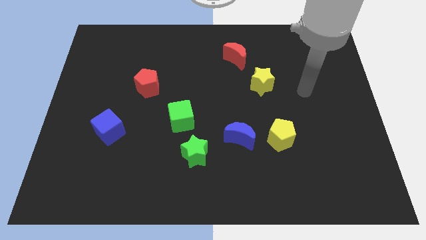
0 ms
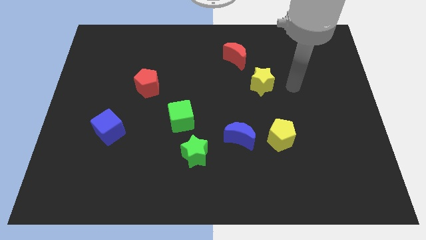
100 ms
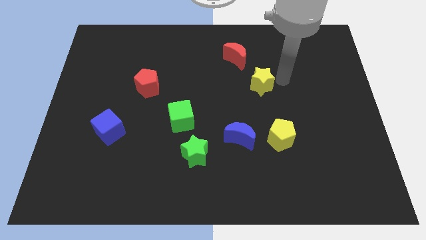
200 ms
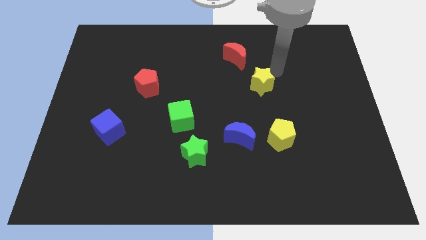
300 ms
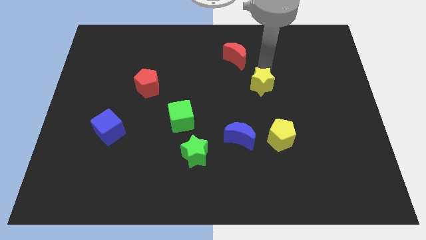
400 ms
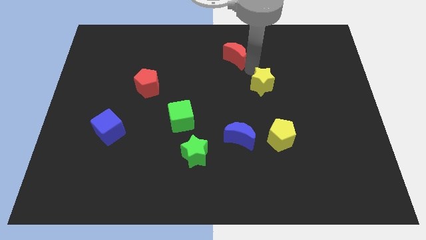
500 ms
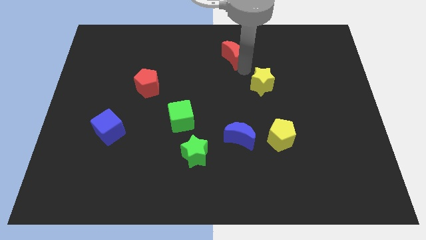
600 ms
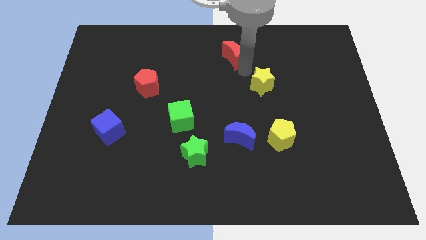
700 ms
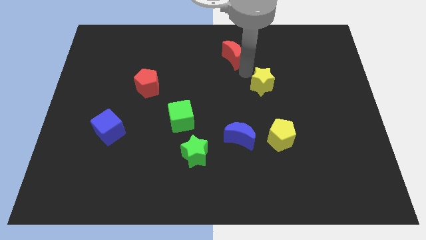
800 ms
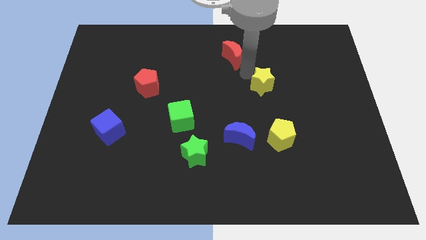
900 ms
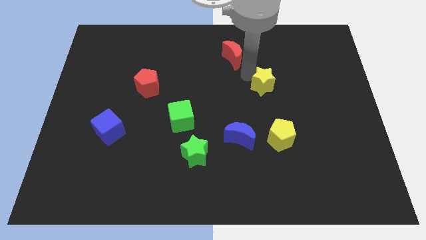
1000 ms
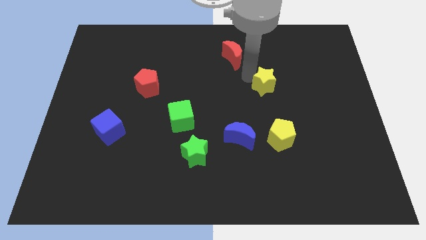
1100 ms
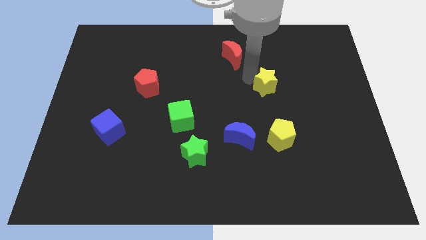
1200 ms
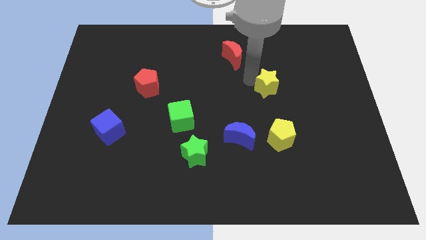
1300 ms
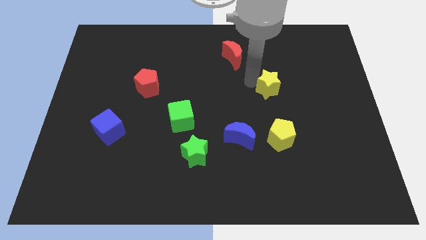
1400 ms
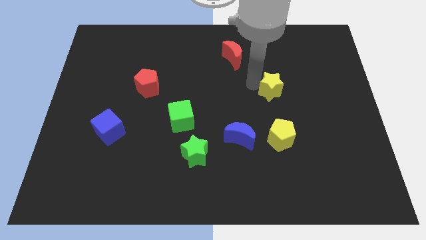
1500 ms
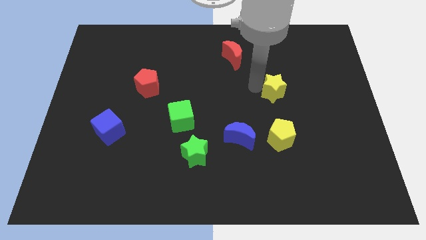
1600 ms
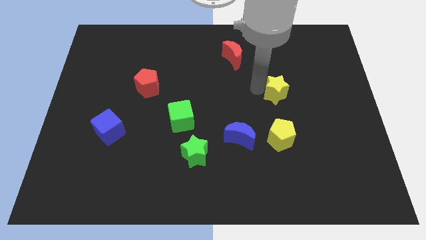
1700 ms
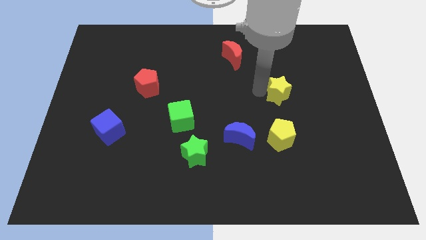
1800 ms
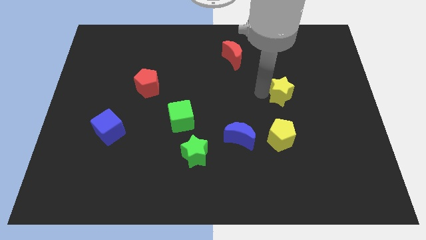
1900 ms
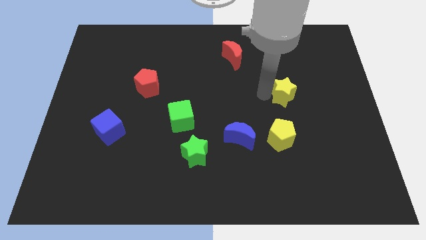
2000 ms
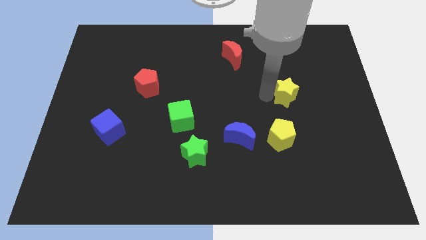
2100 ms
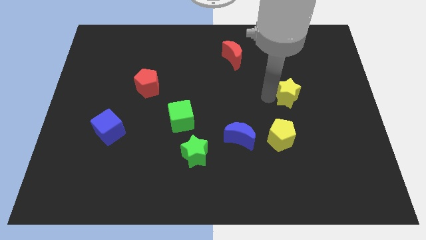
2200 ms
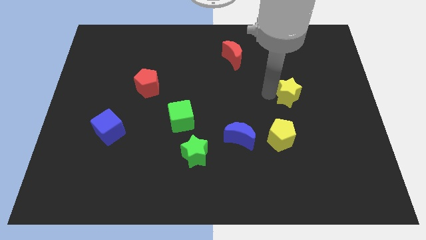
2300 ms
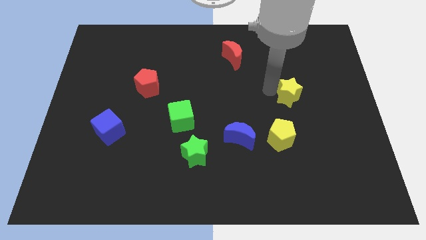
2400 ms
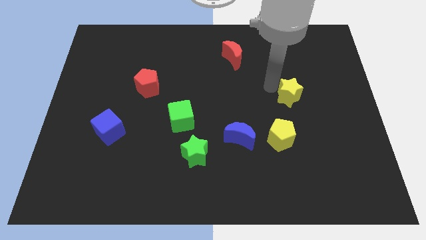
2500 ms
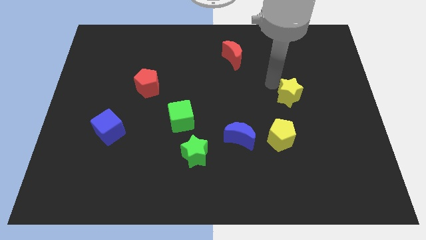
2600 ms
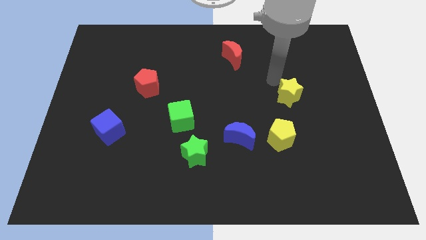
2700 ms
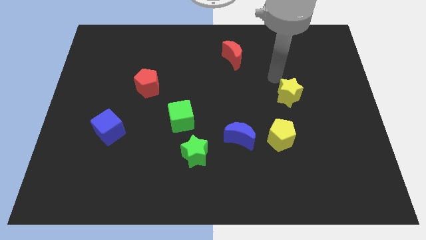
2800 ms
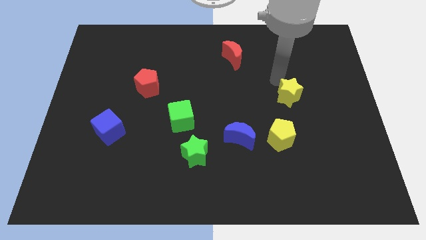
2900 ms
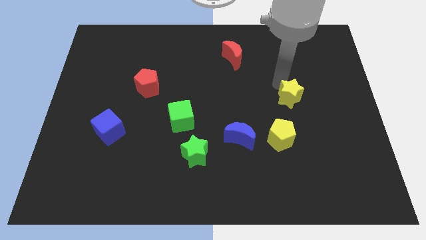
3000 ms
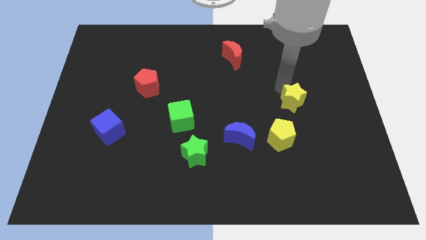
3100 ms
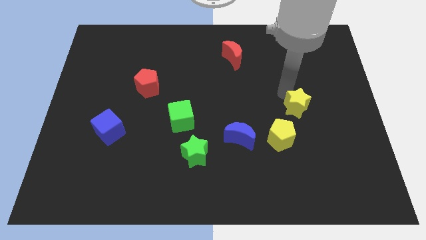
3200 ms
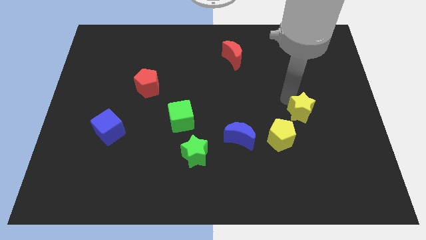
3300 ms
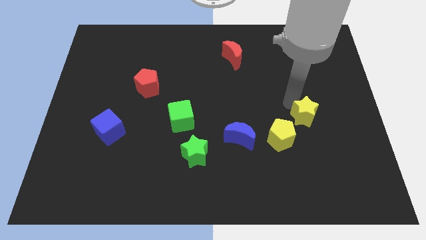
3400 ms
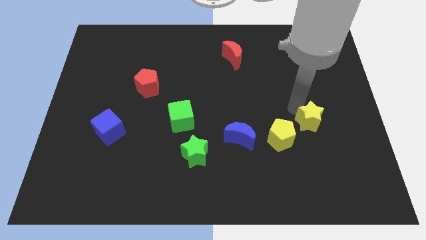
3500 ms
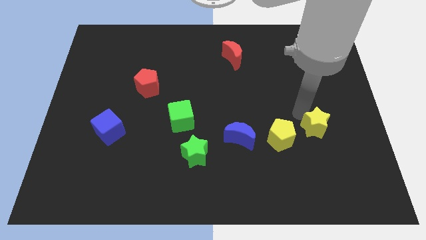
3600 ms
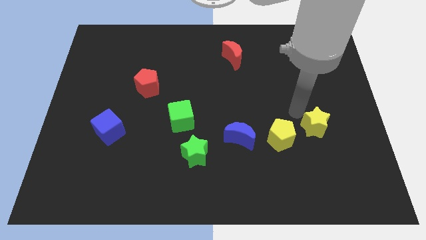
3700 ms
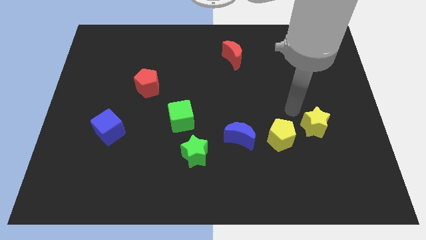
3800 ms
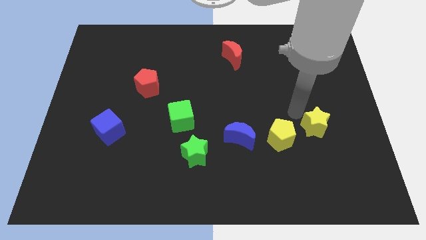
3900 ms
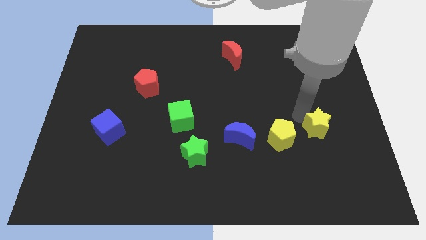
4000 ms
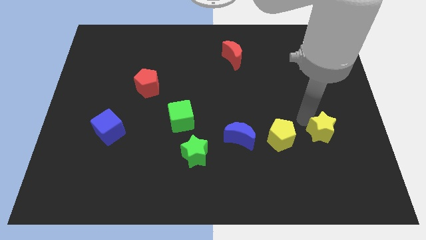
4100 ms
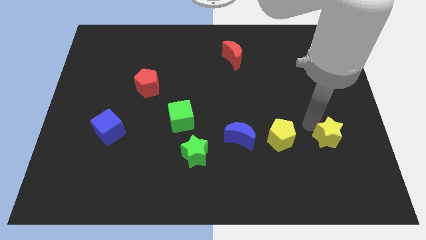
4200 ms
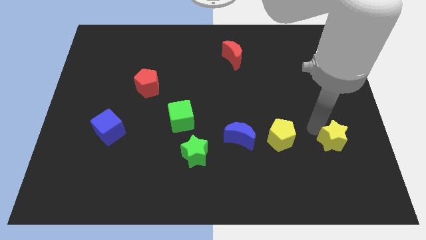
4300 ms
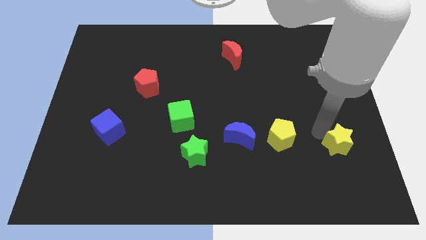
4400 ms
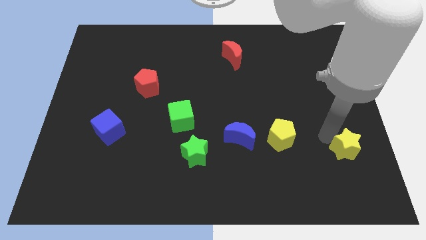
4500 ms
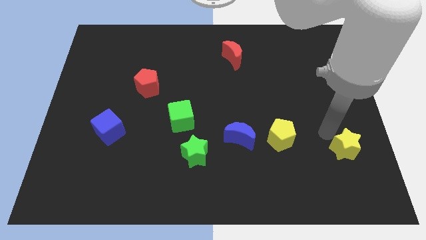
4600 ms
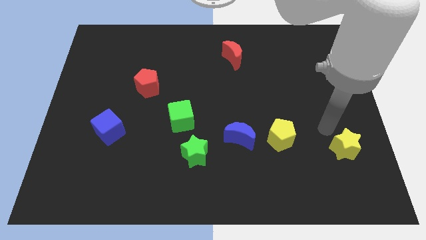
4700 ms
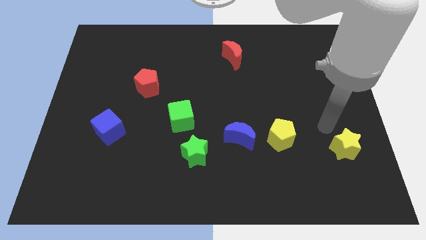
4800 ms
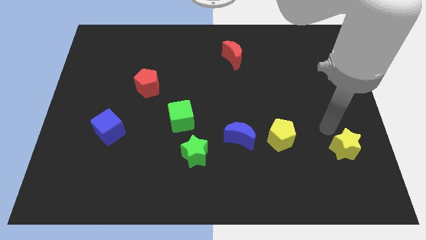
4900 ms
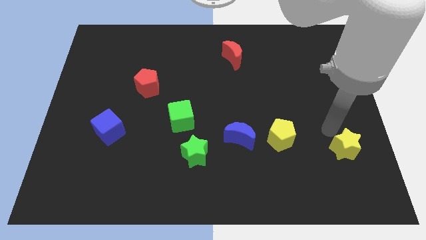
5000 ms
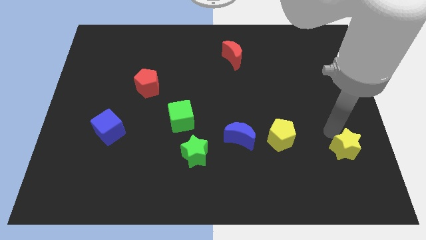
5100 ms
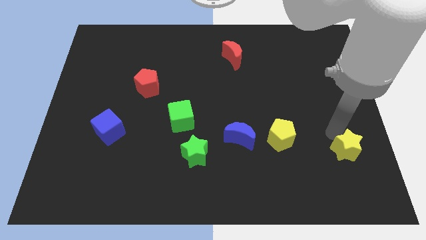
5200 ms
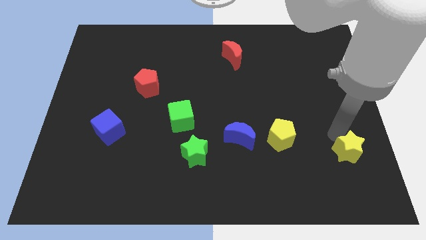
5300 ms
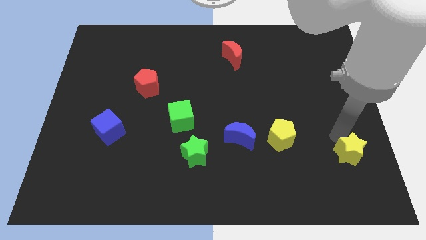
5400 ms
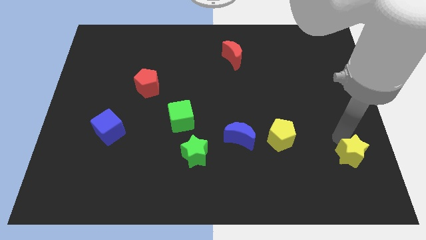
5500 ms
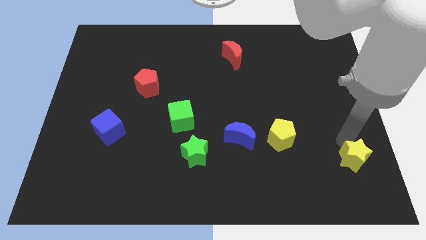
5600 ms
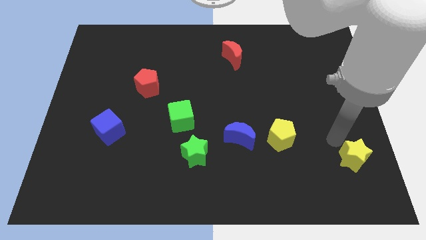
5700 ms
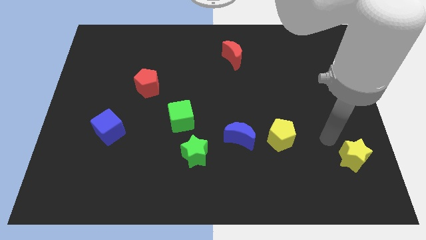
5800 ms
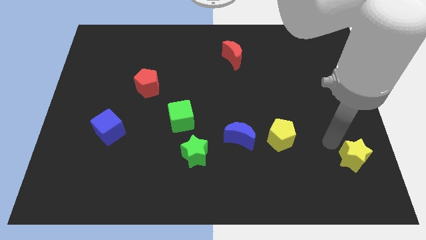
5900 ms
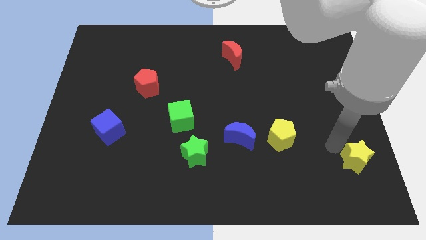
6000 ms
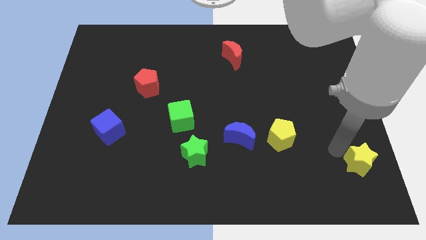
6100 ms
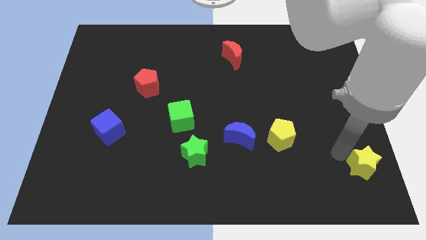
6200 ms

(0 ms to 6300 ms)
push the yellow star to the lower right corner
